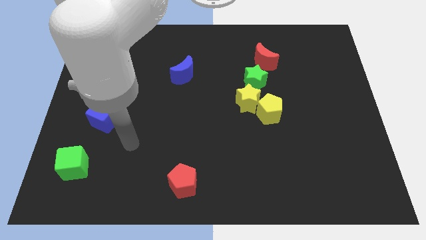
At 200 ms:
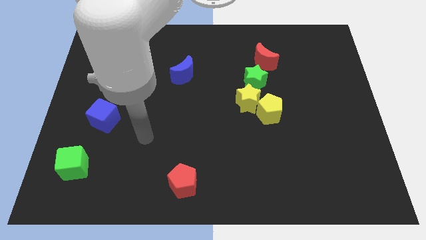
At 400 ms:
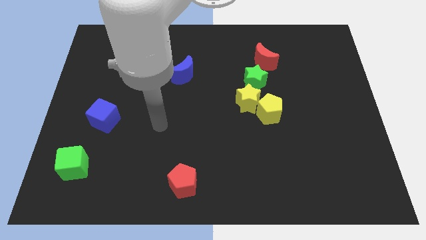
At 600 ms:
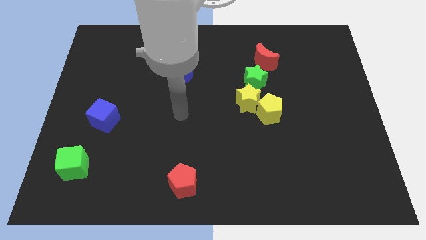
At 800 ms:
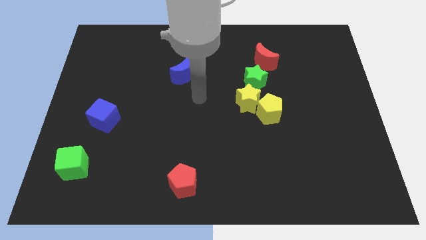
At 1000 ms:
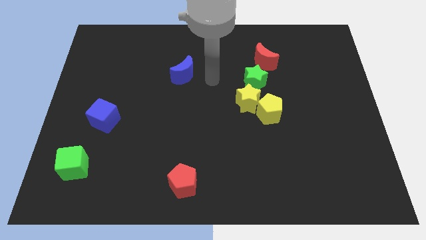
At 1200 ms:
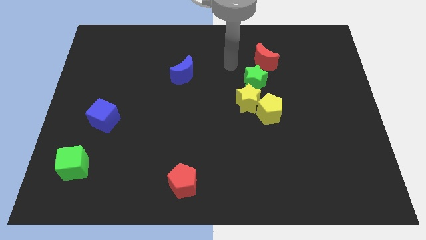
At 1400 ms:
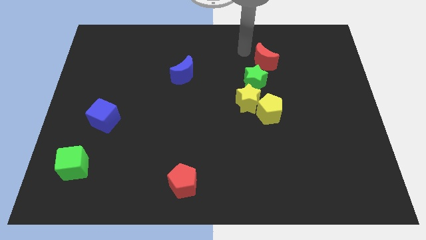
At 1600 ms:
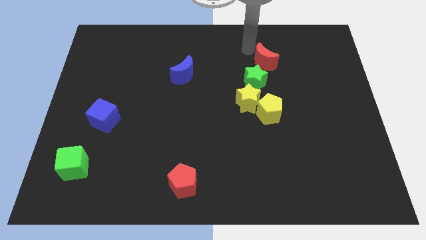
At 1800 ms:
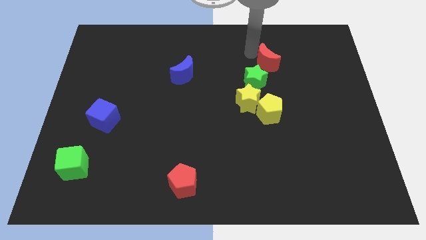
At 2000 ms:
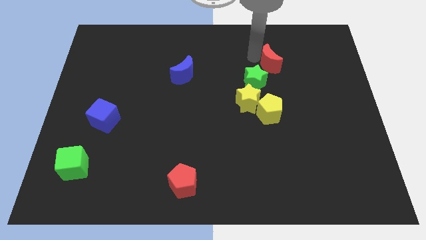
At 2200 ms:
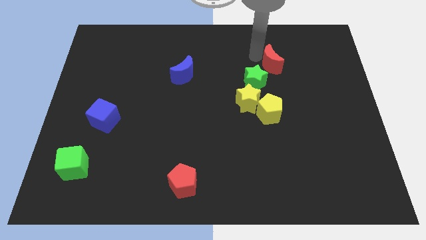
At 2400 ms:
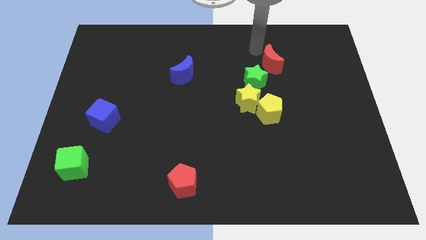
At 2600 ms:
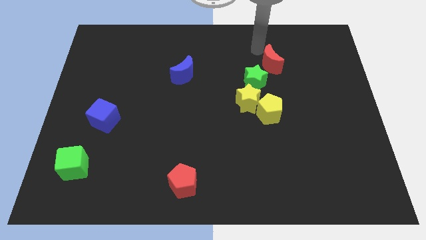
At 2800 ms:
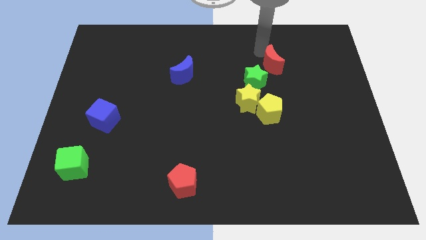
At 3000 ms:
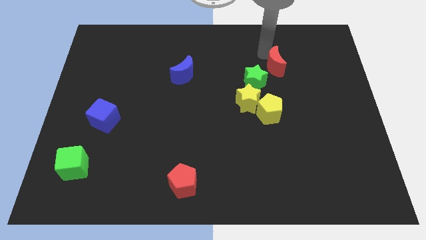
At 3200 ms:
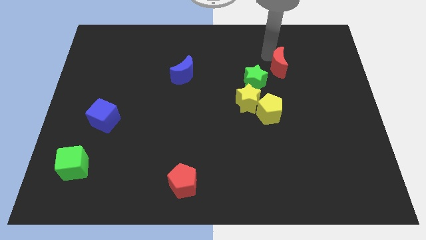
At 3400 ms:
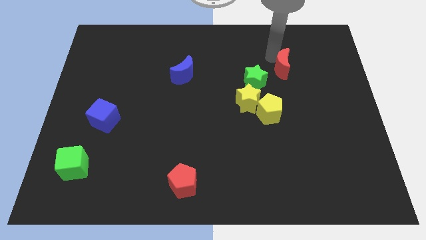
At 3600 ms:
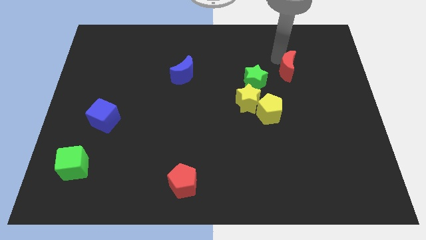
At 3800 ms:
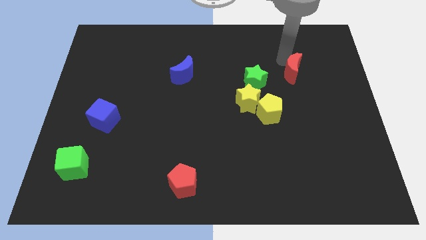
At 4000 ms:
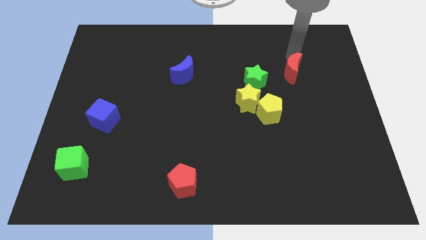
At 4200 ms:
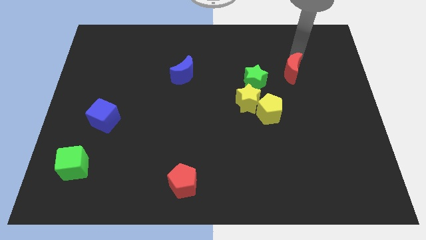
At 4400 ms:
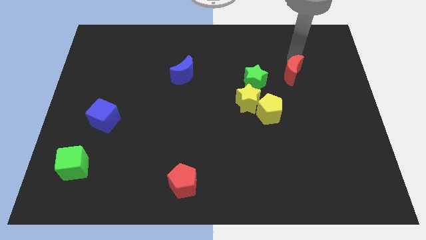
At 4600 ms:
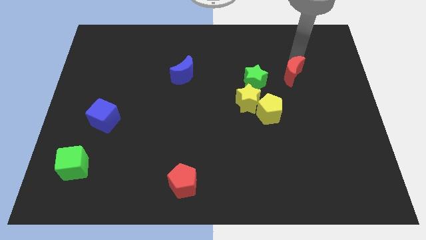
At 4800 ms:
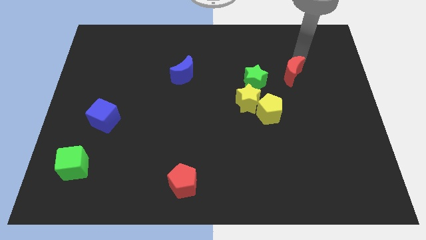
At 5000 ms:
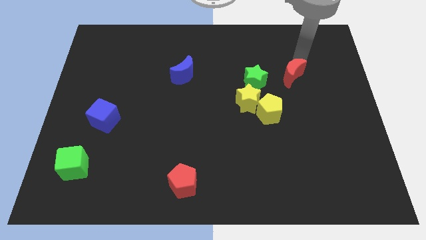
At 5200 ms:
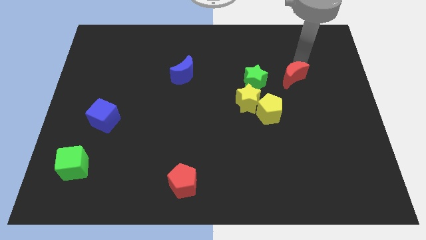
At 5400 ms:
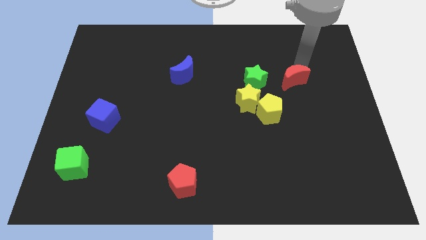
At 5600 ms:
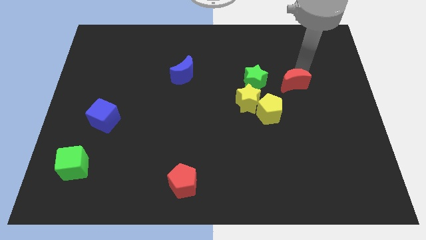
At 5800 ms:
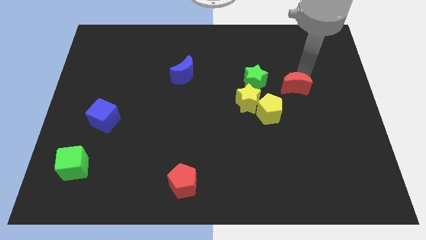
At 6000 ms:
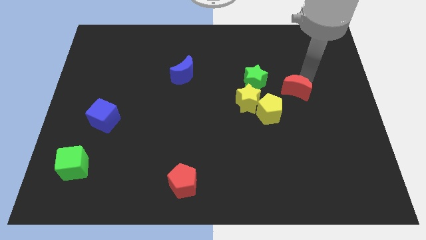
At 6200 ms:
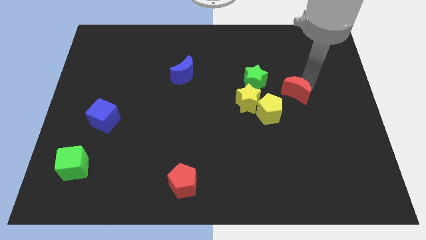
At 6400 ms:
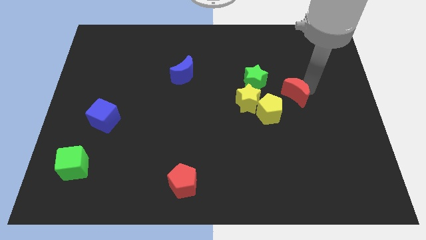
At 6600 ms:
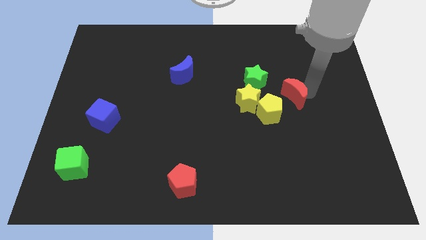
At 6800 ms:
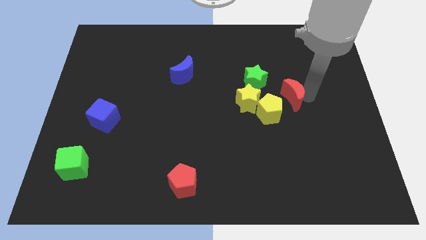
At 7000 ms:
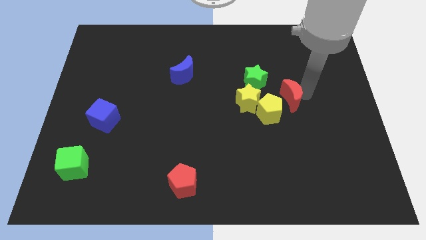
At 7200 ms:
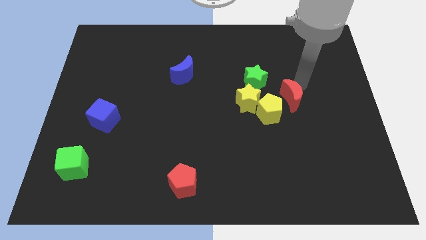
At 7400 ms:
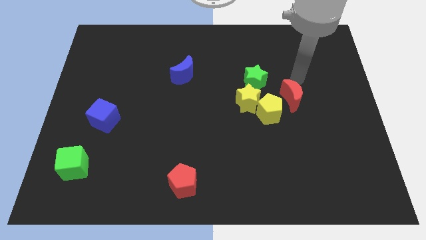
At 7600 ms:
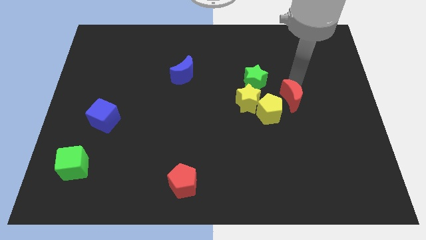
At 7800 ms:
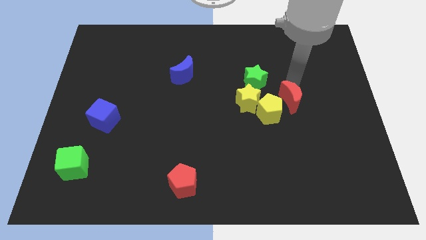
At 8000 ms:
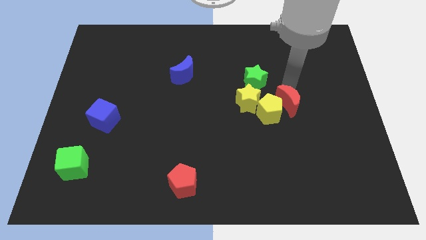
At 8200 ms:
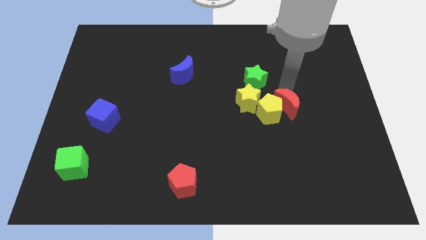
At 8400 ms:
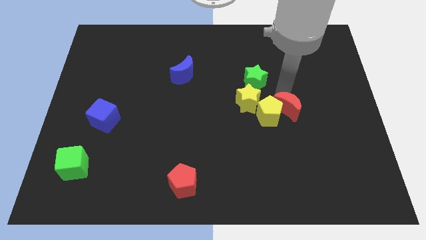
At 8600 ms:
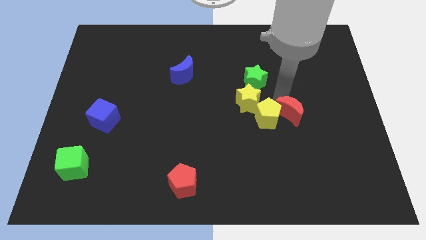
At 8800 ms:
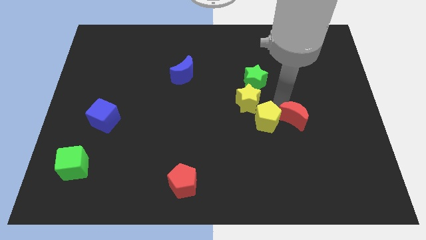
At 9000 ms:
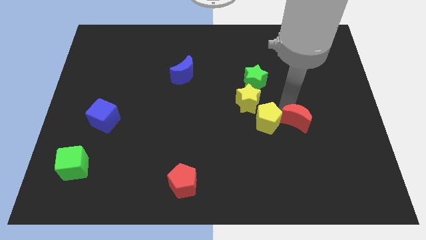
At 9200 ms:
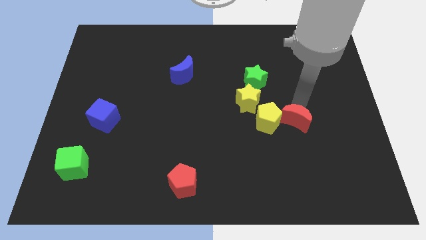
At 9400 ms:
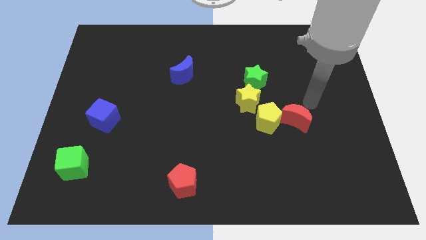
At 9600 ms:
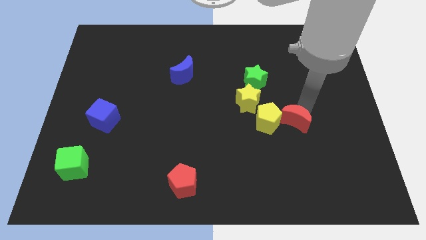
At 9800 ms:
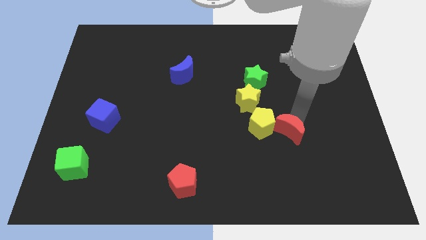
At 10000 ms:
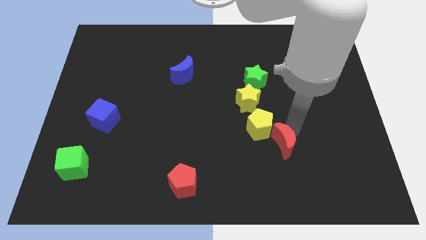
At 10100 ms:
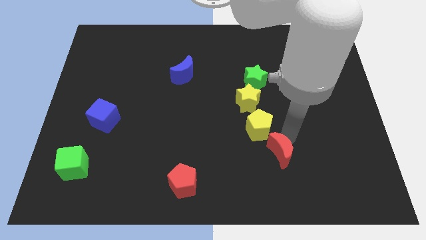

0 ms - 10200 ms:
push the red moon to the bottom of the yellow pentagon

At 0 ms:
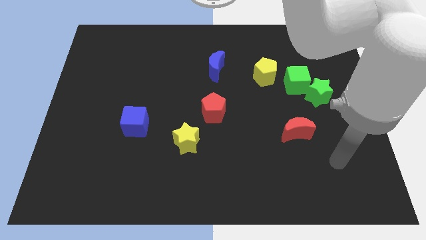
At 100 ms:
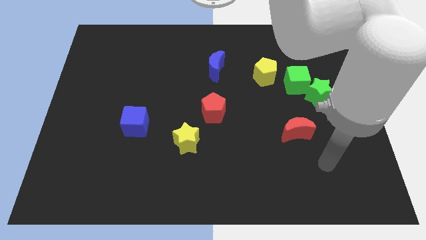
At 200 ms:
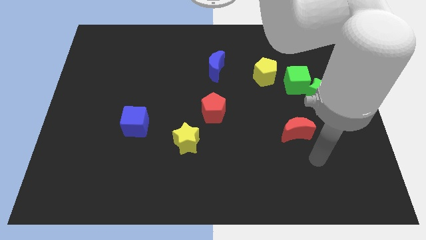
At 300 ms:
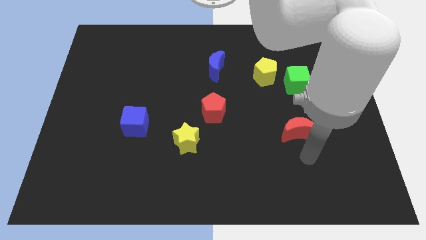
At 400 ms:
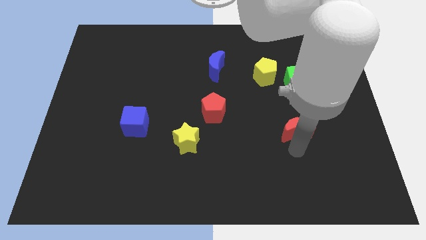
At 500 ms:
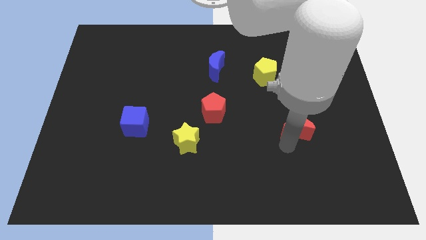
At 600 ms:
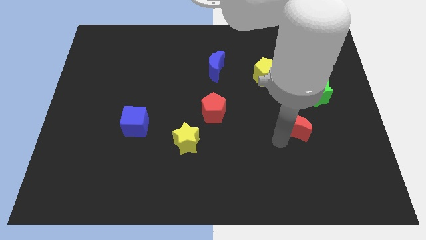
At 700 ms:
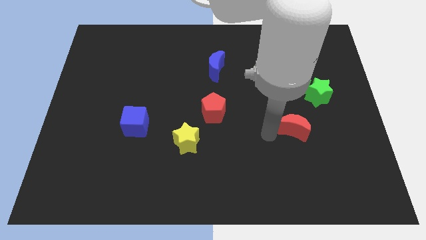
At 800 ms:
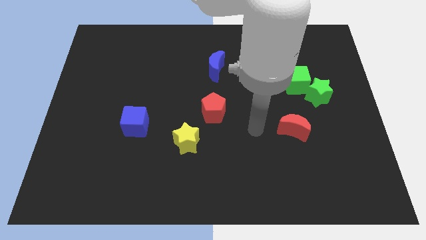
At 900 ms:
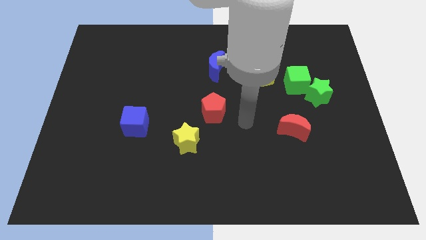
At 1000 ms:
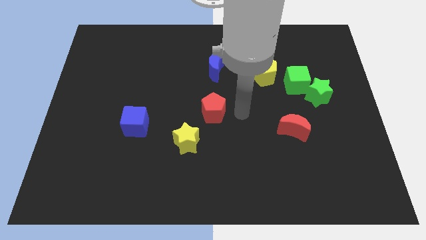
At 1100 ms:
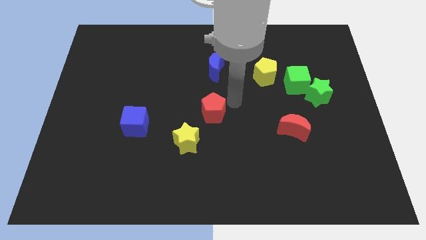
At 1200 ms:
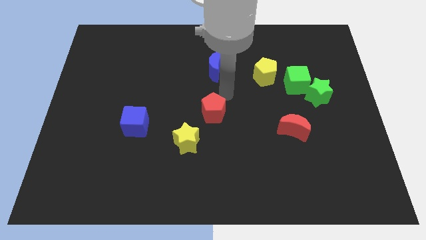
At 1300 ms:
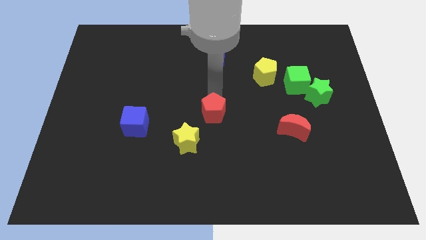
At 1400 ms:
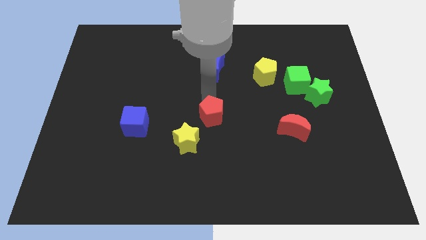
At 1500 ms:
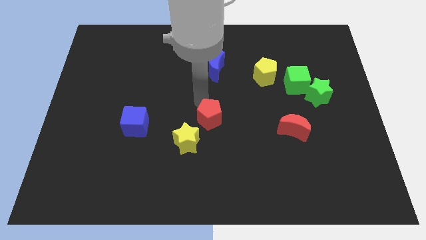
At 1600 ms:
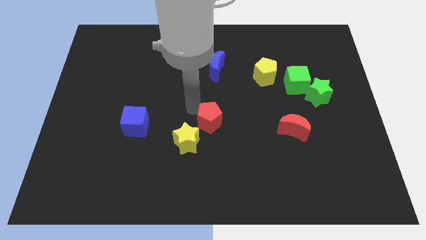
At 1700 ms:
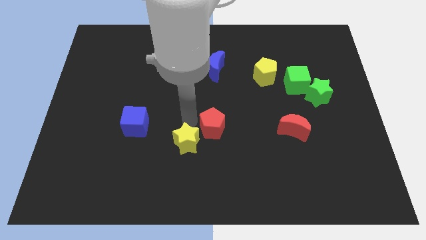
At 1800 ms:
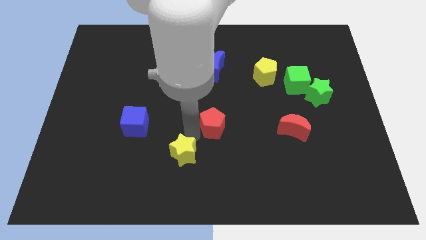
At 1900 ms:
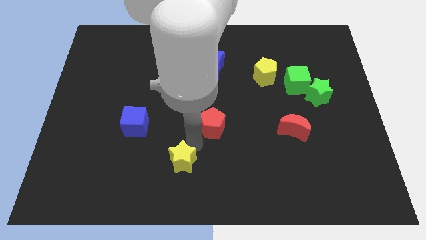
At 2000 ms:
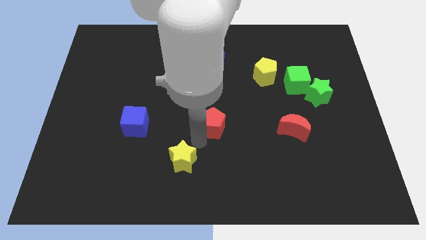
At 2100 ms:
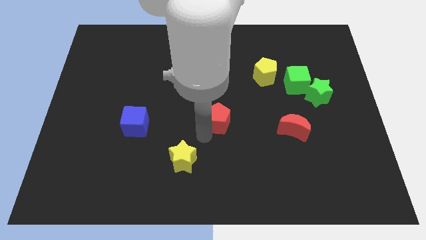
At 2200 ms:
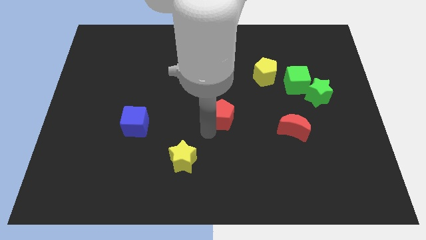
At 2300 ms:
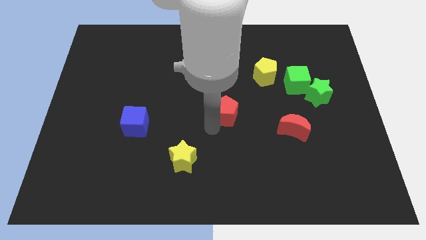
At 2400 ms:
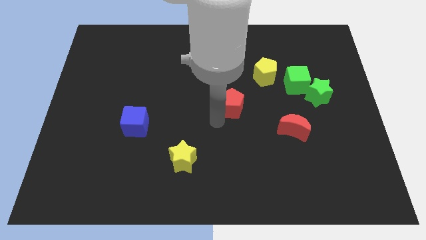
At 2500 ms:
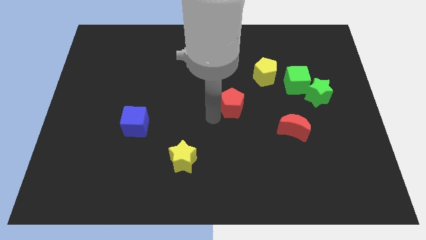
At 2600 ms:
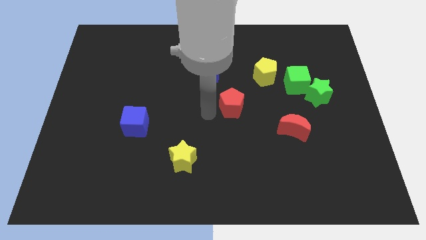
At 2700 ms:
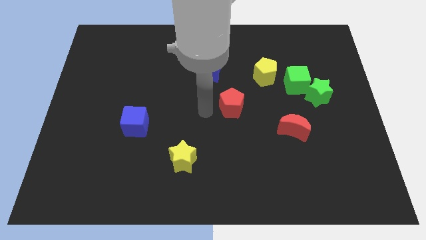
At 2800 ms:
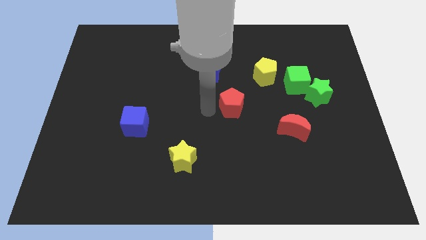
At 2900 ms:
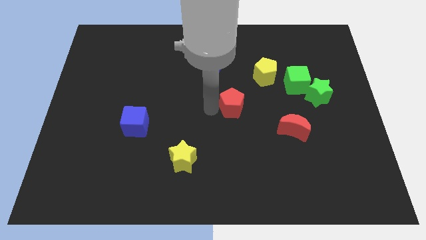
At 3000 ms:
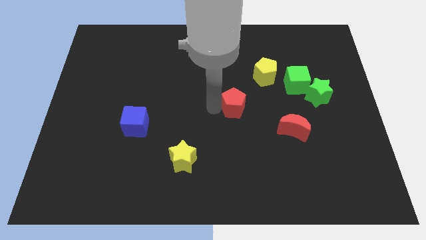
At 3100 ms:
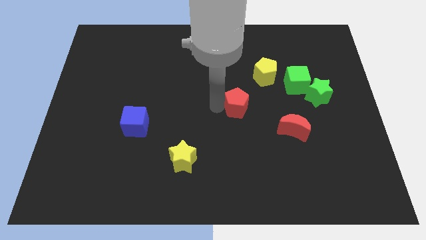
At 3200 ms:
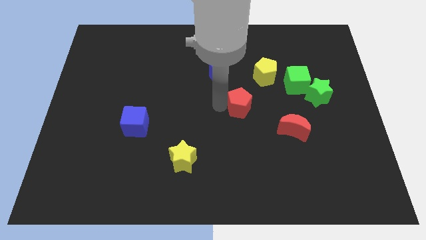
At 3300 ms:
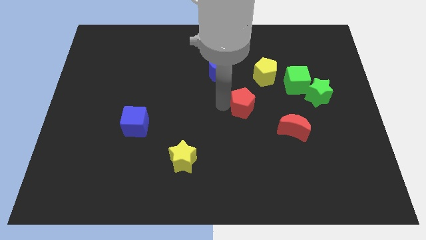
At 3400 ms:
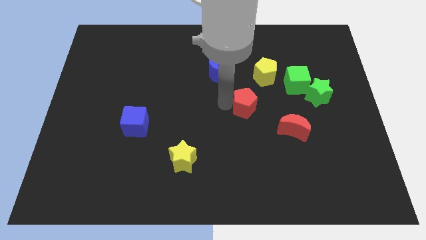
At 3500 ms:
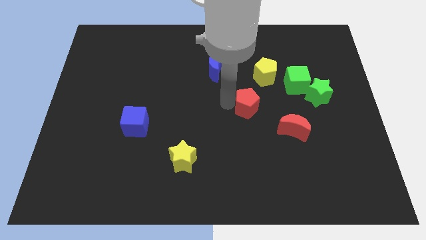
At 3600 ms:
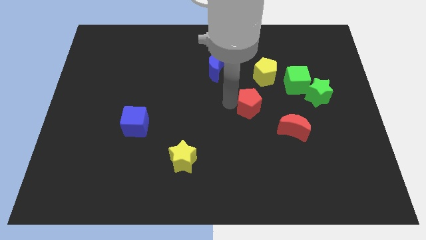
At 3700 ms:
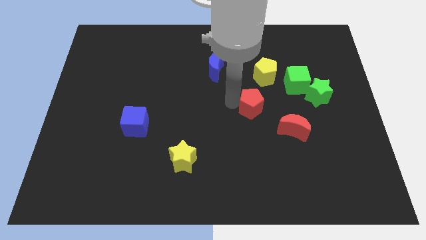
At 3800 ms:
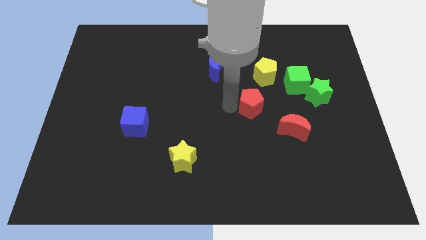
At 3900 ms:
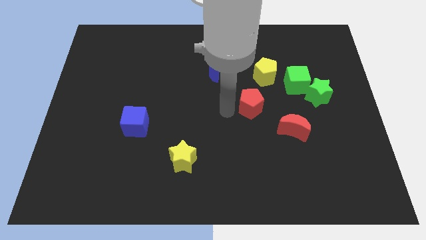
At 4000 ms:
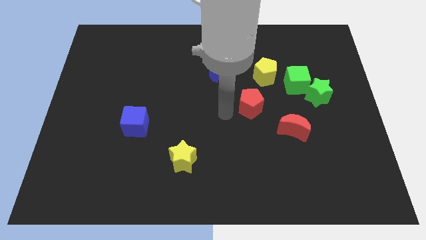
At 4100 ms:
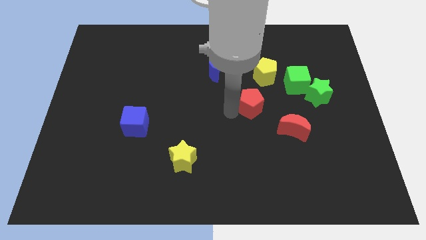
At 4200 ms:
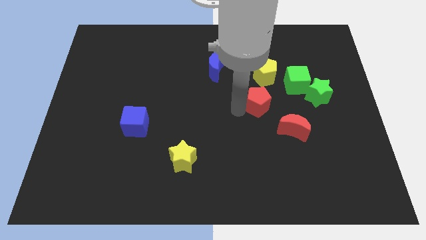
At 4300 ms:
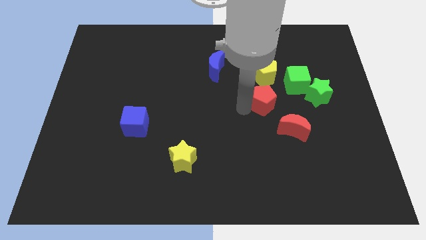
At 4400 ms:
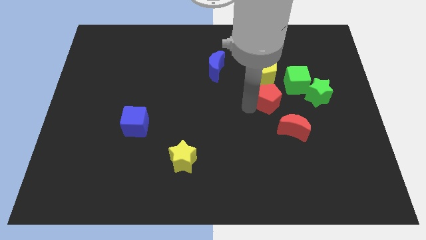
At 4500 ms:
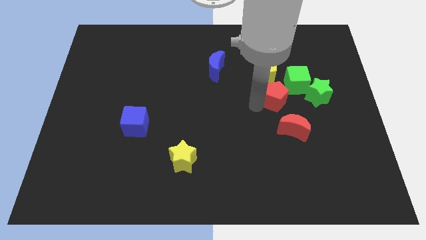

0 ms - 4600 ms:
put the red pentagon diagonally down and to the right of the yellow pentagon
